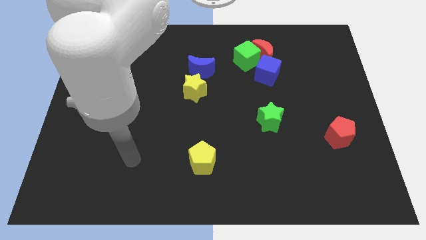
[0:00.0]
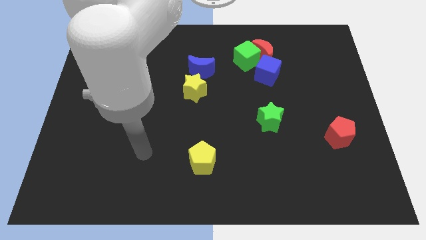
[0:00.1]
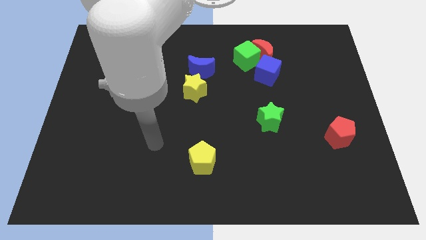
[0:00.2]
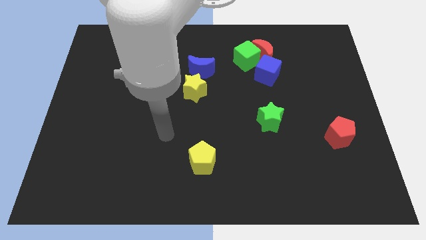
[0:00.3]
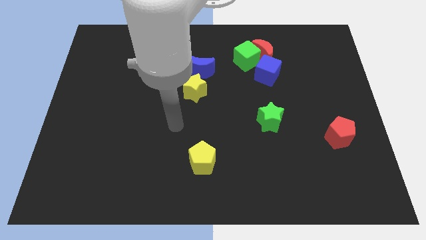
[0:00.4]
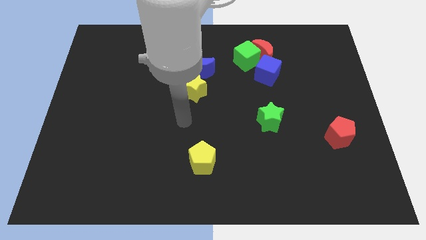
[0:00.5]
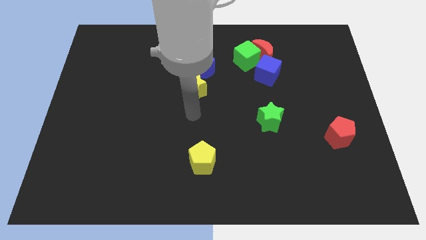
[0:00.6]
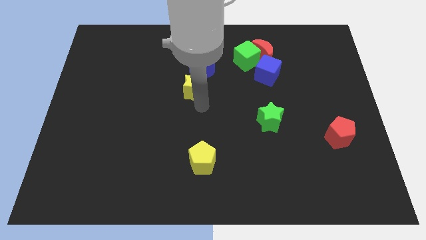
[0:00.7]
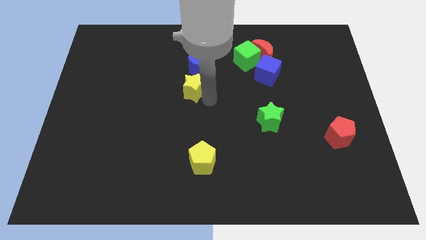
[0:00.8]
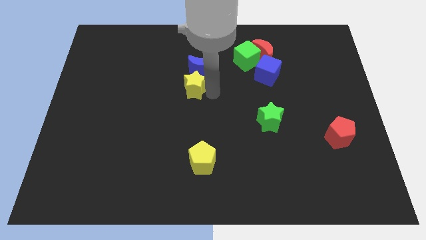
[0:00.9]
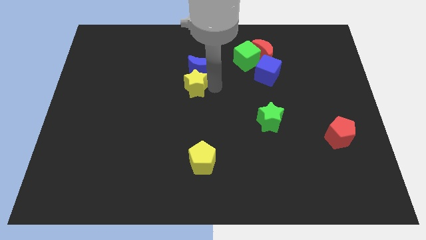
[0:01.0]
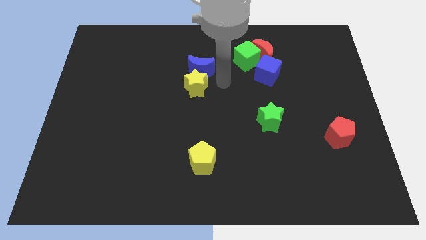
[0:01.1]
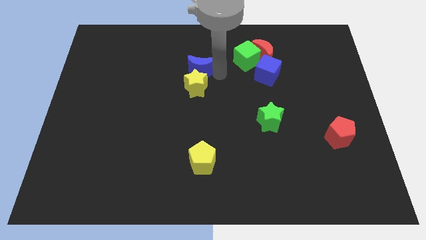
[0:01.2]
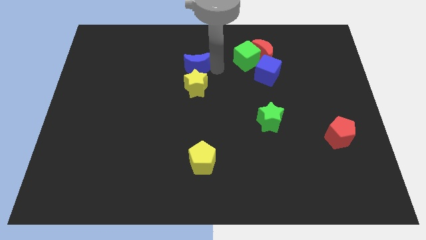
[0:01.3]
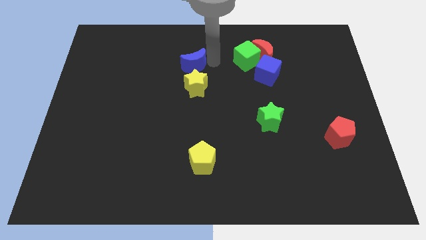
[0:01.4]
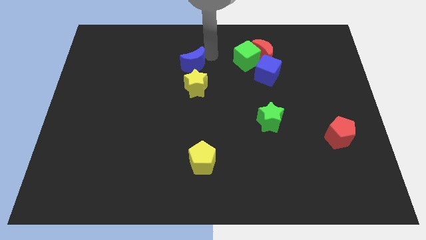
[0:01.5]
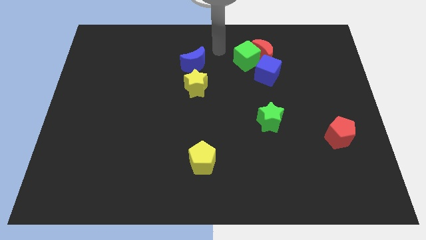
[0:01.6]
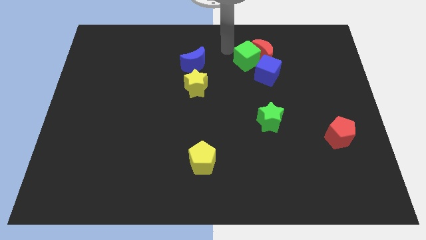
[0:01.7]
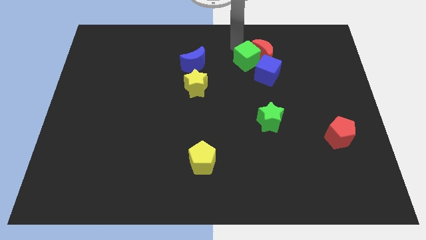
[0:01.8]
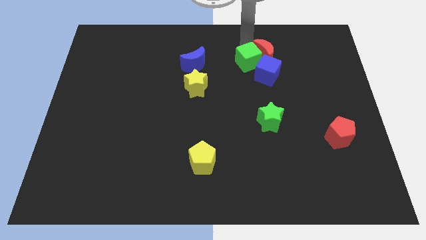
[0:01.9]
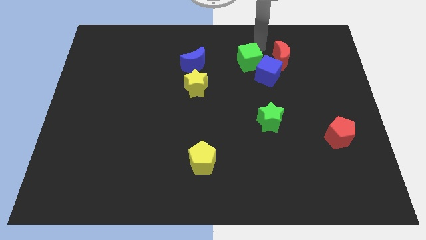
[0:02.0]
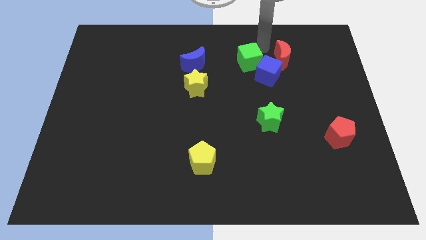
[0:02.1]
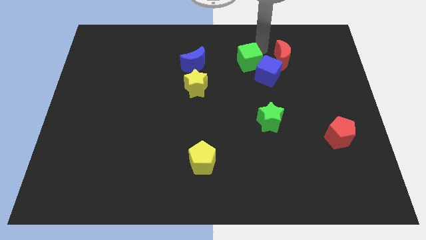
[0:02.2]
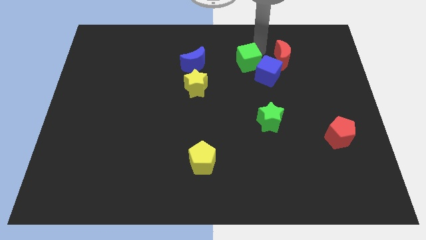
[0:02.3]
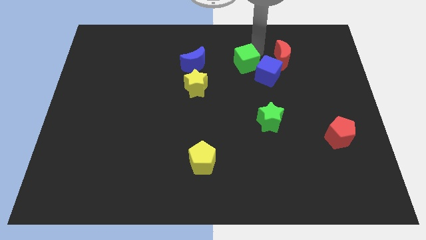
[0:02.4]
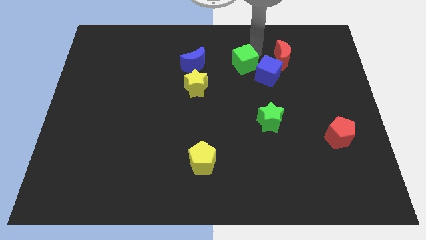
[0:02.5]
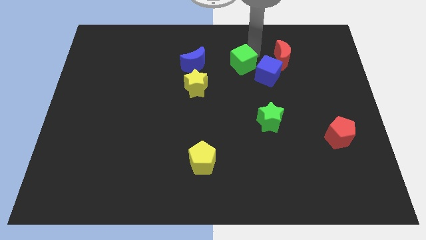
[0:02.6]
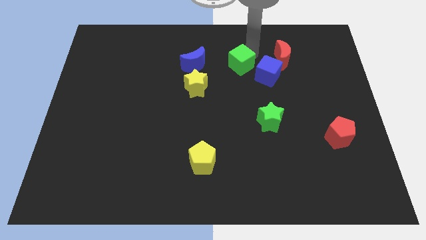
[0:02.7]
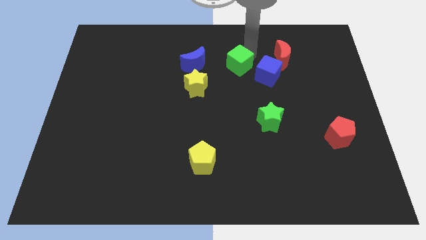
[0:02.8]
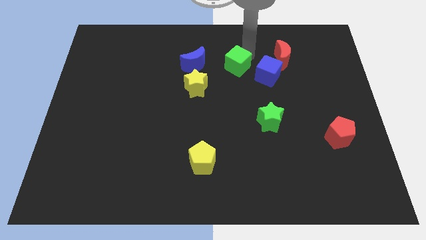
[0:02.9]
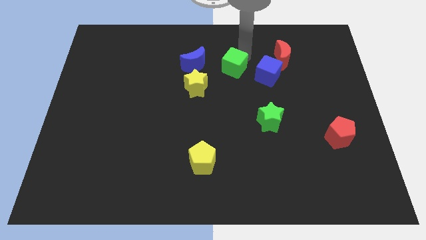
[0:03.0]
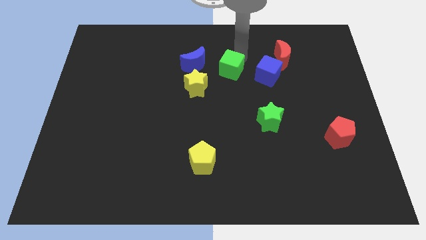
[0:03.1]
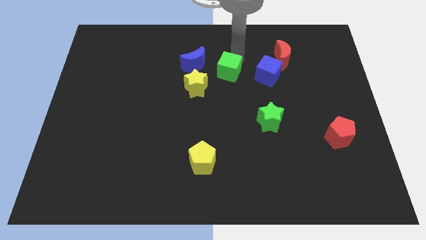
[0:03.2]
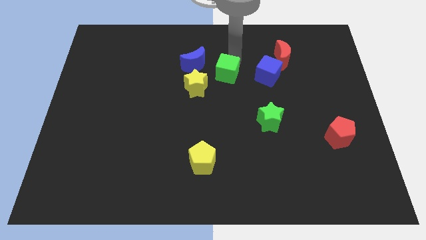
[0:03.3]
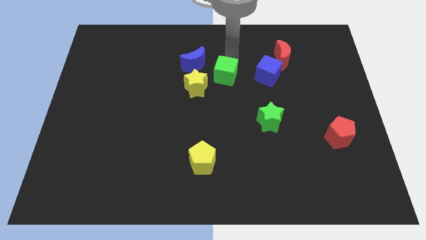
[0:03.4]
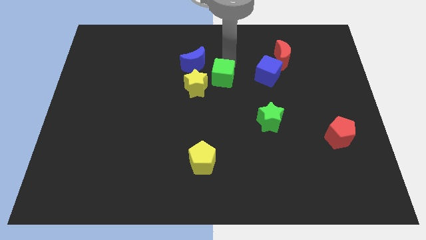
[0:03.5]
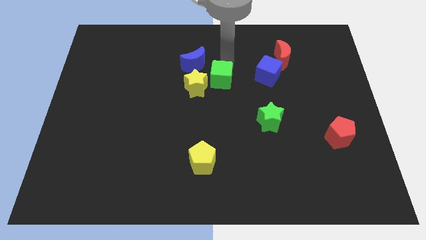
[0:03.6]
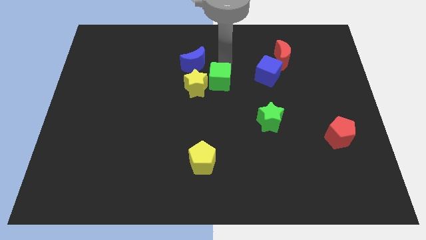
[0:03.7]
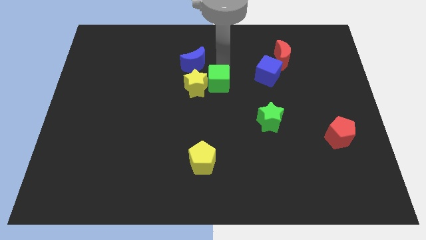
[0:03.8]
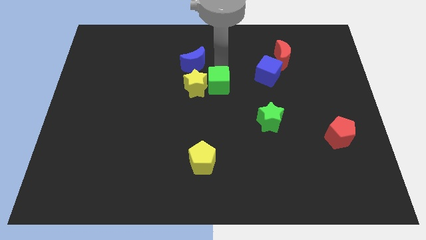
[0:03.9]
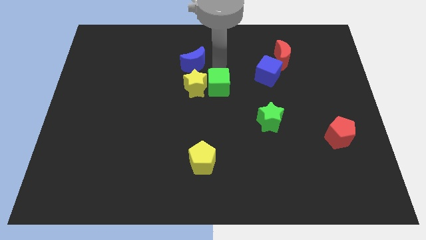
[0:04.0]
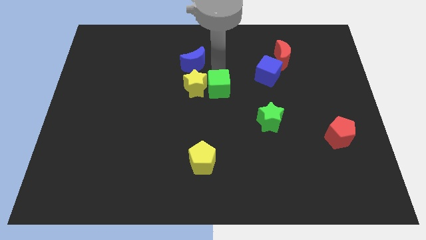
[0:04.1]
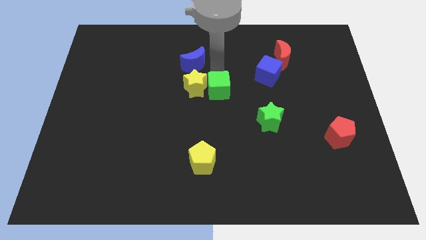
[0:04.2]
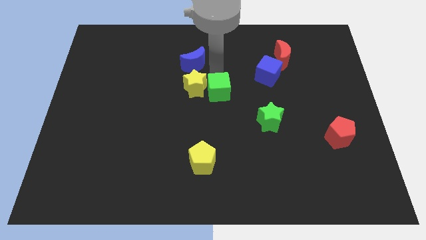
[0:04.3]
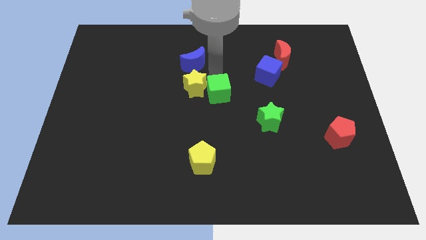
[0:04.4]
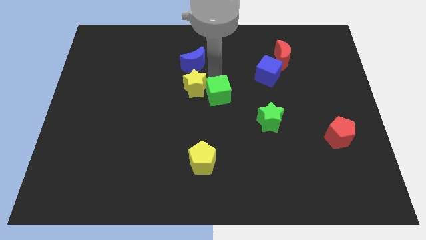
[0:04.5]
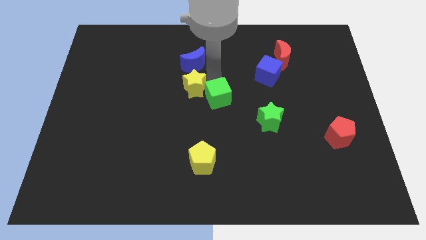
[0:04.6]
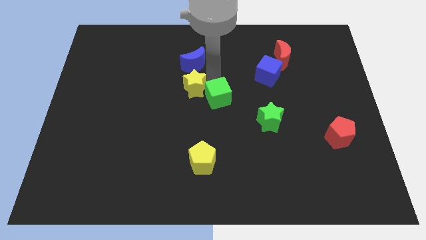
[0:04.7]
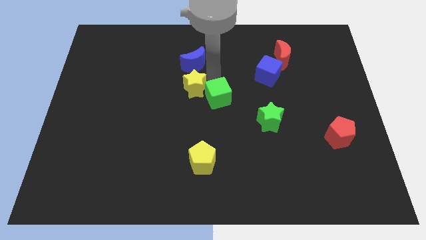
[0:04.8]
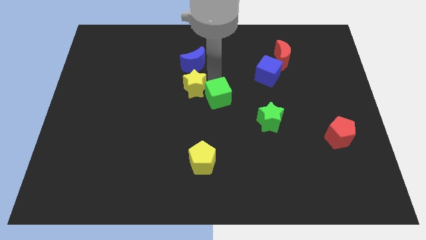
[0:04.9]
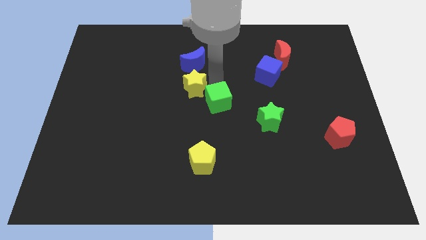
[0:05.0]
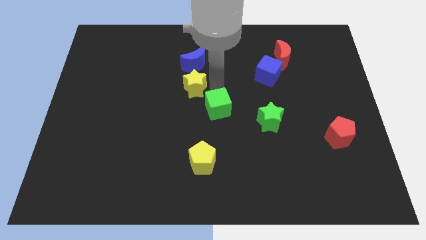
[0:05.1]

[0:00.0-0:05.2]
move the green cube to the left side of the green star

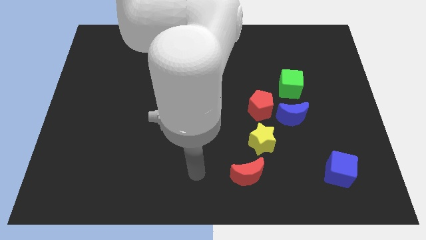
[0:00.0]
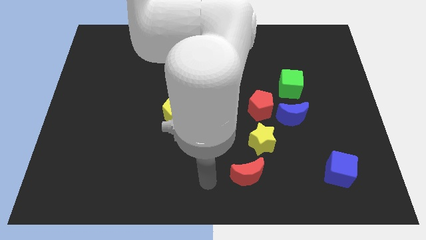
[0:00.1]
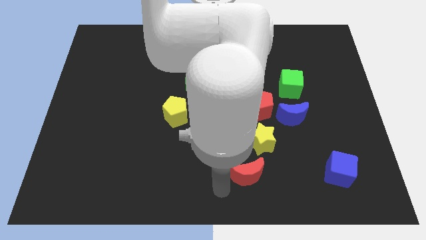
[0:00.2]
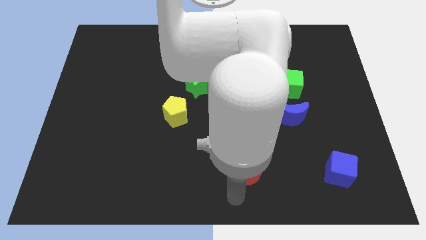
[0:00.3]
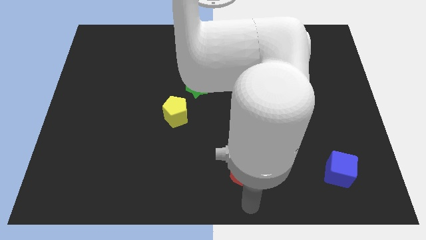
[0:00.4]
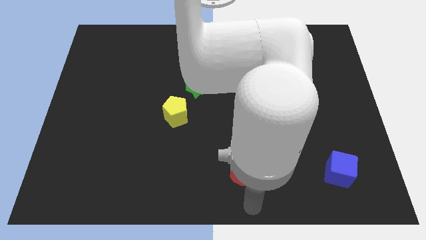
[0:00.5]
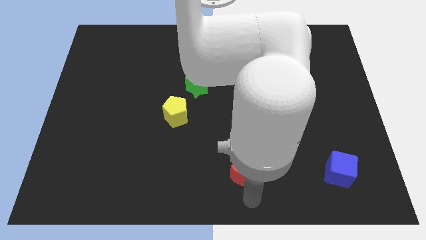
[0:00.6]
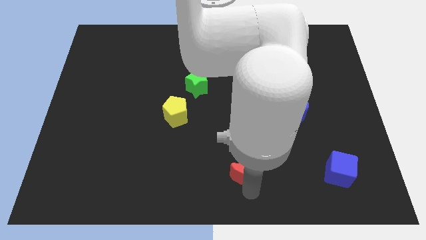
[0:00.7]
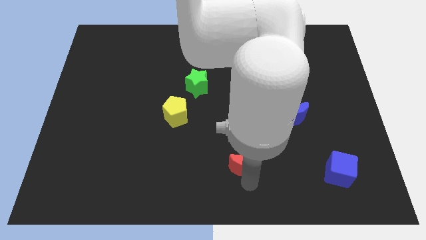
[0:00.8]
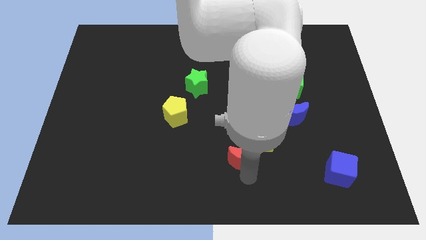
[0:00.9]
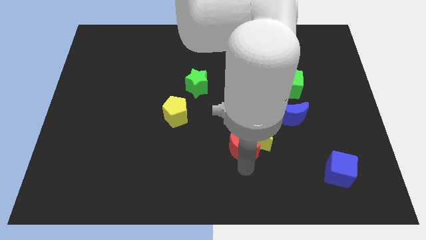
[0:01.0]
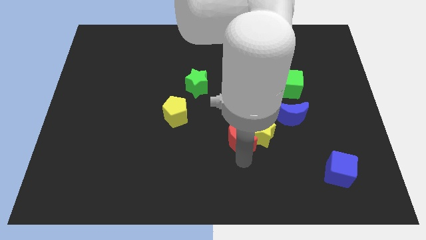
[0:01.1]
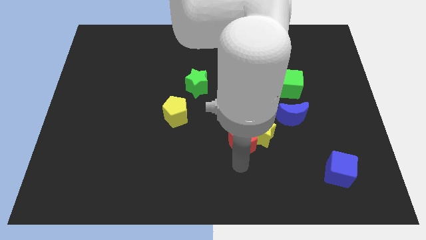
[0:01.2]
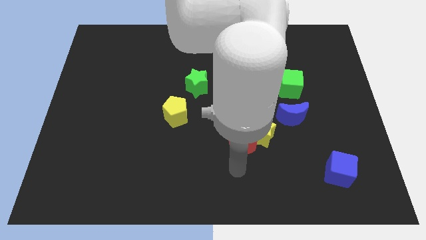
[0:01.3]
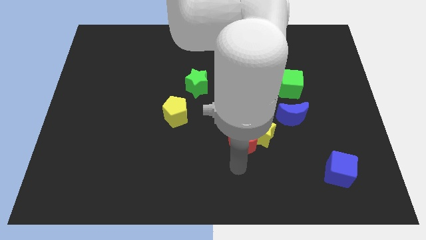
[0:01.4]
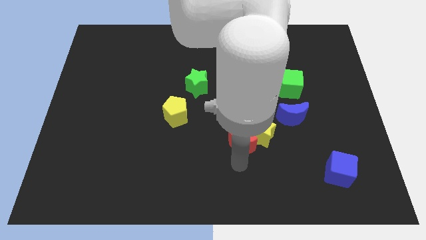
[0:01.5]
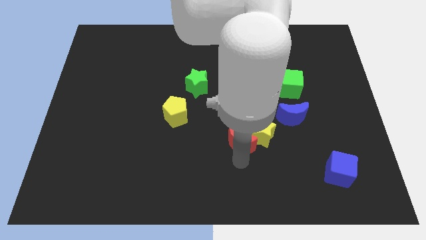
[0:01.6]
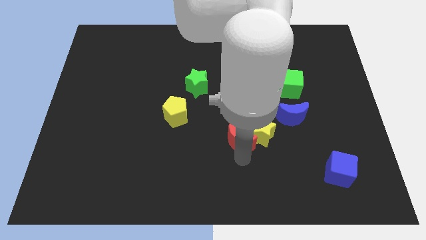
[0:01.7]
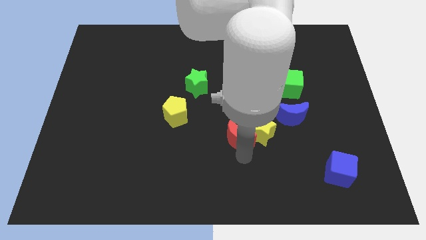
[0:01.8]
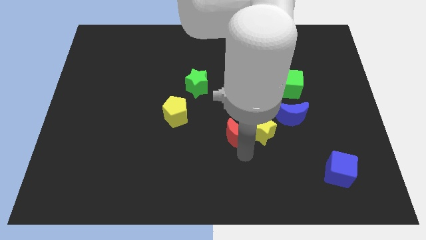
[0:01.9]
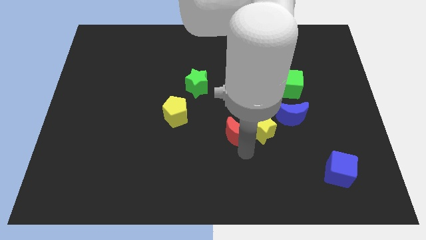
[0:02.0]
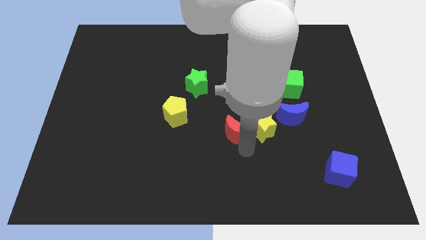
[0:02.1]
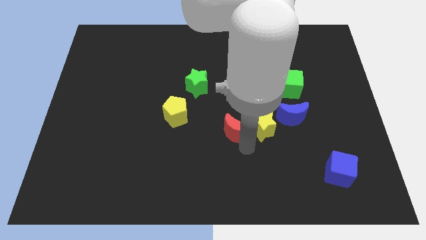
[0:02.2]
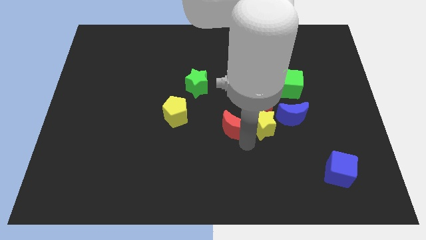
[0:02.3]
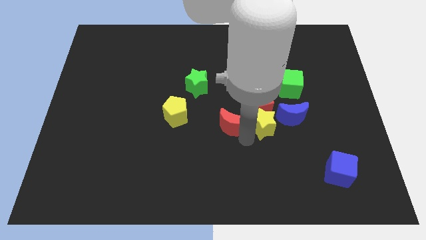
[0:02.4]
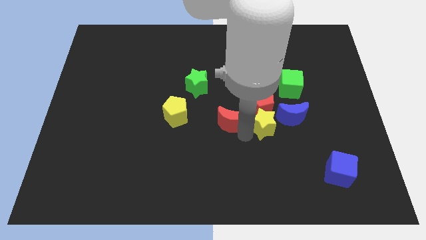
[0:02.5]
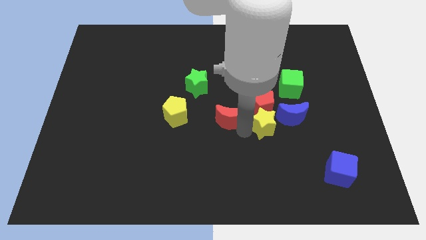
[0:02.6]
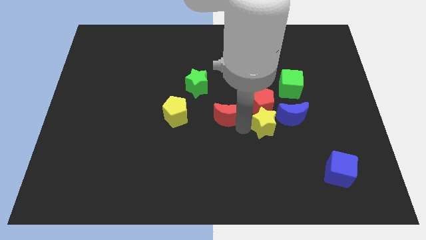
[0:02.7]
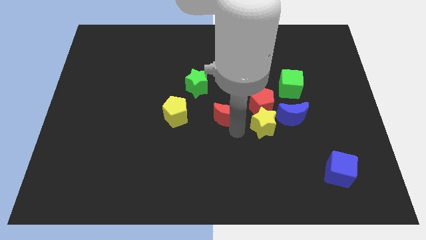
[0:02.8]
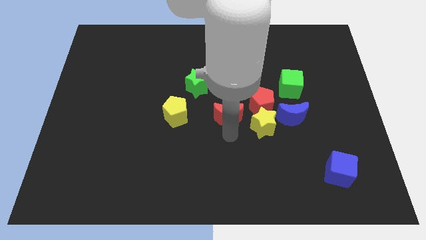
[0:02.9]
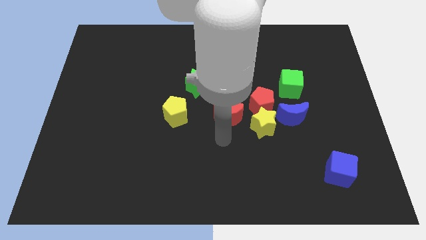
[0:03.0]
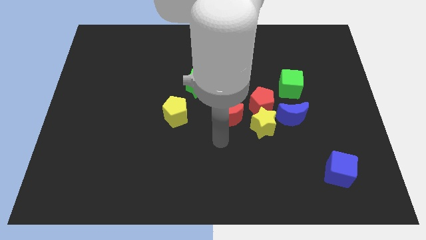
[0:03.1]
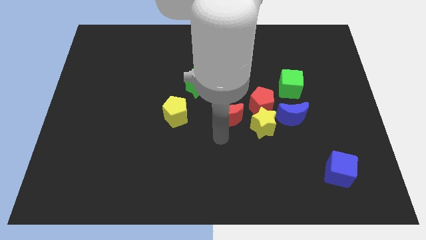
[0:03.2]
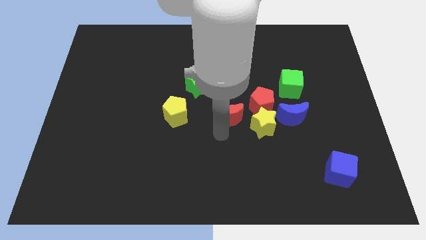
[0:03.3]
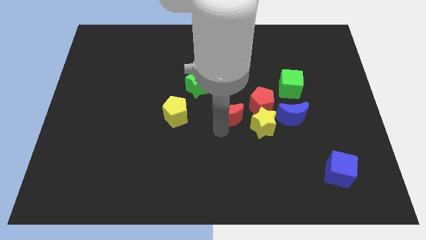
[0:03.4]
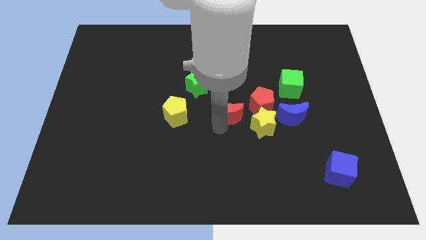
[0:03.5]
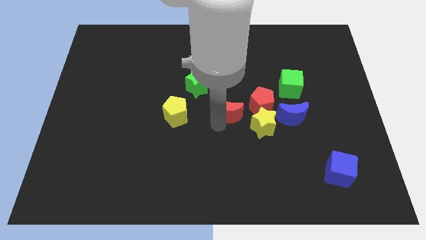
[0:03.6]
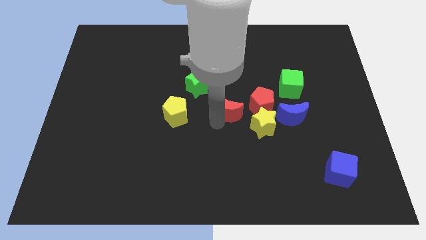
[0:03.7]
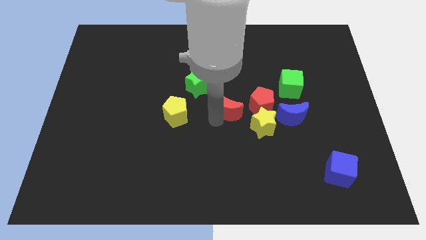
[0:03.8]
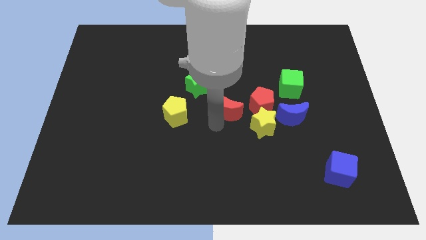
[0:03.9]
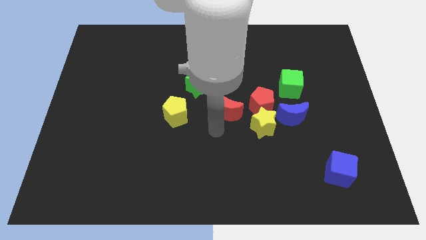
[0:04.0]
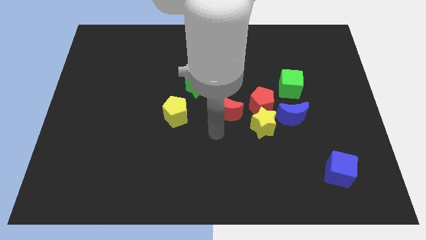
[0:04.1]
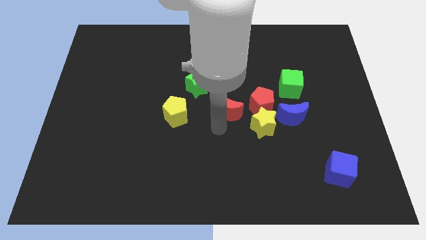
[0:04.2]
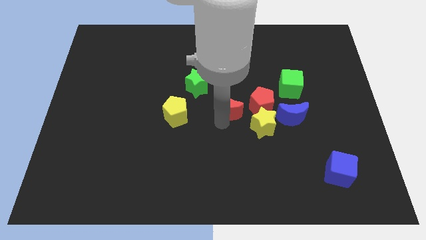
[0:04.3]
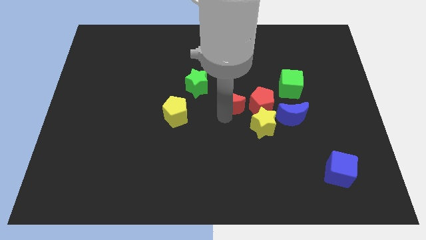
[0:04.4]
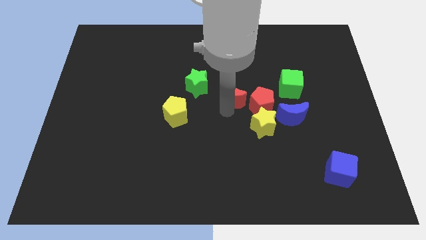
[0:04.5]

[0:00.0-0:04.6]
push the red moon to the top left side of the red pentagon
